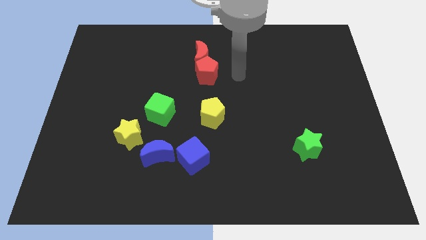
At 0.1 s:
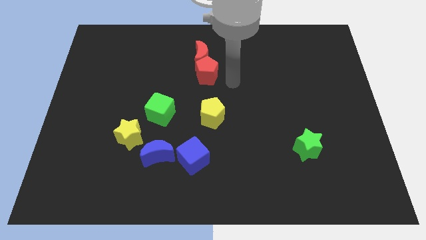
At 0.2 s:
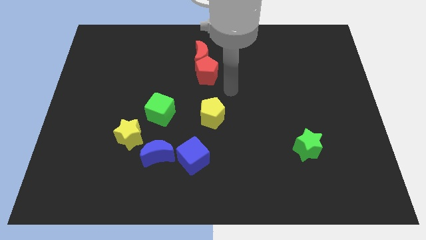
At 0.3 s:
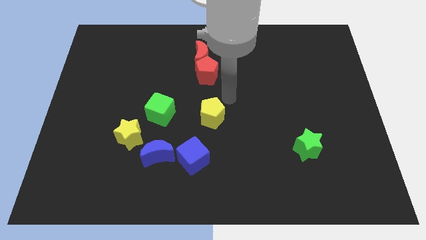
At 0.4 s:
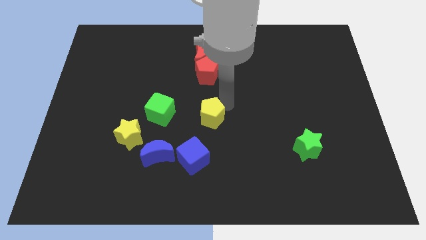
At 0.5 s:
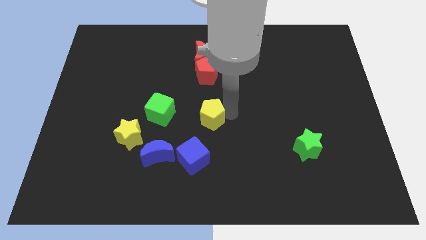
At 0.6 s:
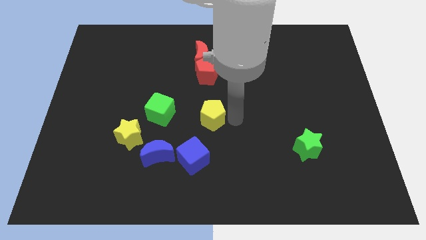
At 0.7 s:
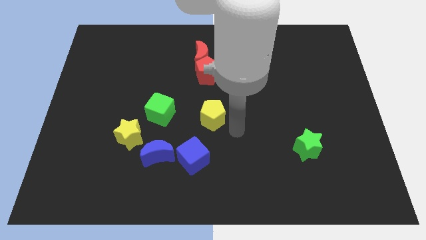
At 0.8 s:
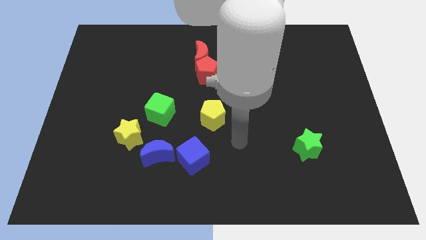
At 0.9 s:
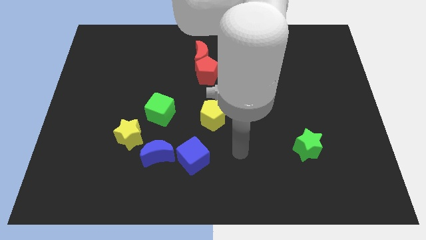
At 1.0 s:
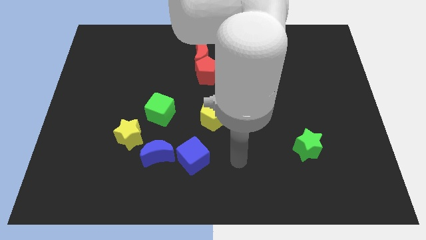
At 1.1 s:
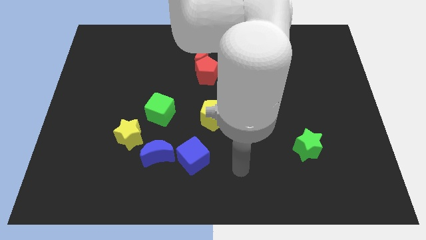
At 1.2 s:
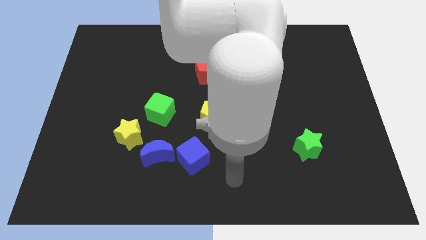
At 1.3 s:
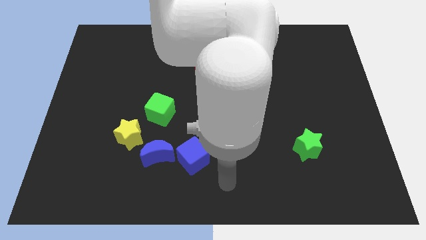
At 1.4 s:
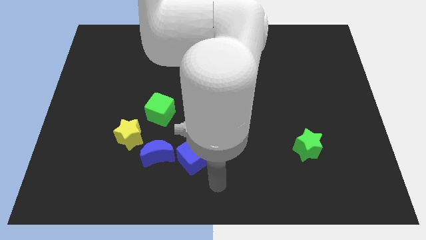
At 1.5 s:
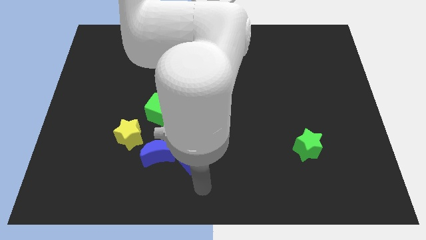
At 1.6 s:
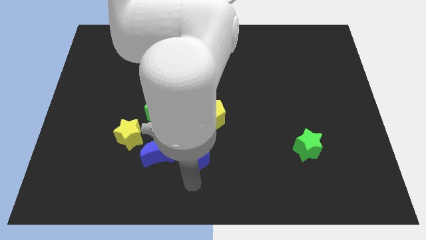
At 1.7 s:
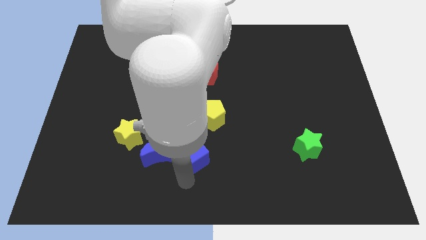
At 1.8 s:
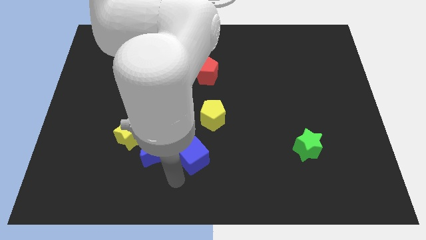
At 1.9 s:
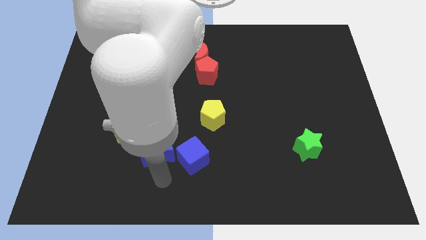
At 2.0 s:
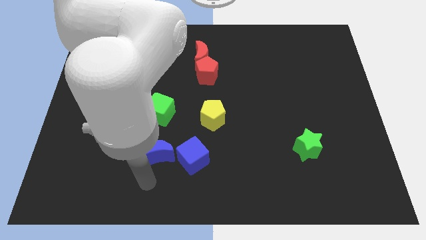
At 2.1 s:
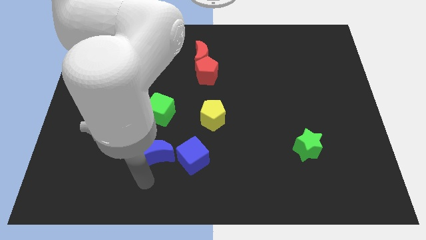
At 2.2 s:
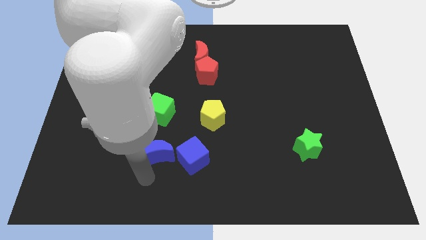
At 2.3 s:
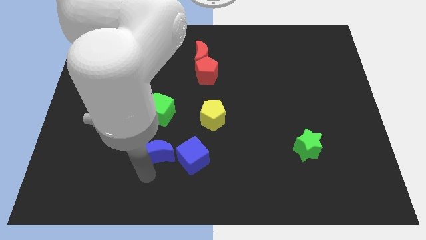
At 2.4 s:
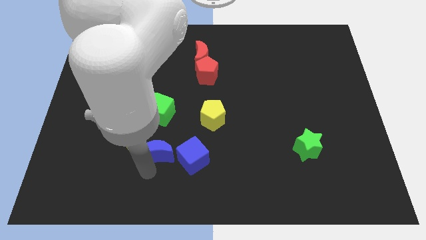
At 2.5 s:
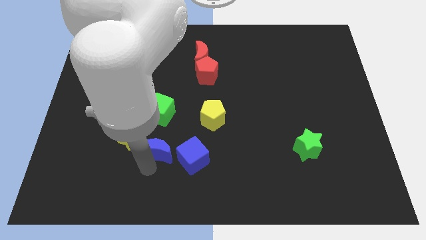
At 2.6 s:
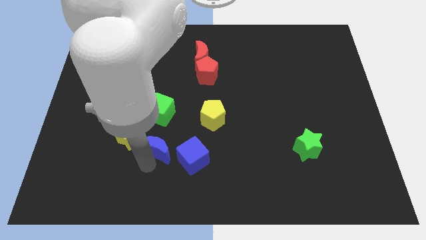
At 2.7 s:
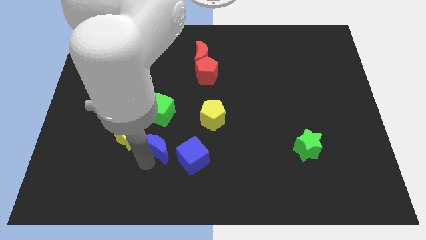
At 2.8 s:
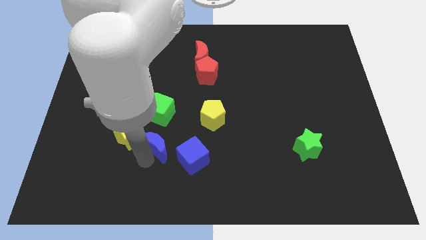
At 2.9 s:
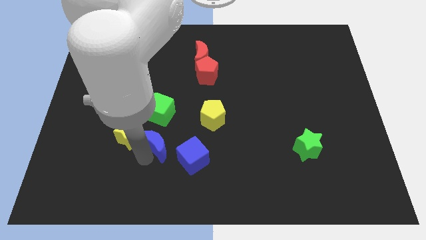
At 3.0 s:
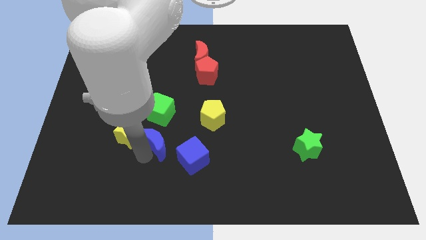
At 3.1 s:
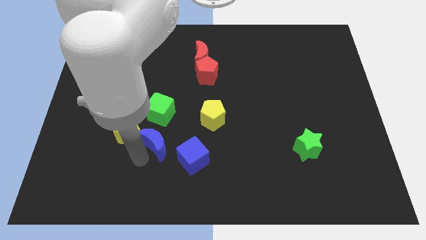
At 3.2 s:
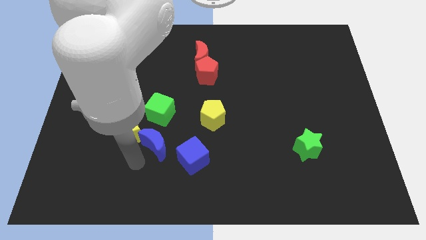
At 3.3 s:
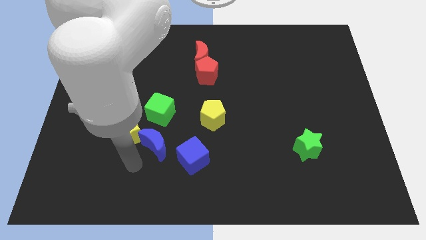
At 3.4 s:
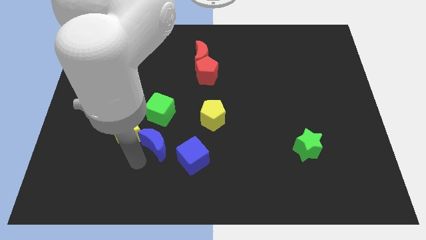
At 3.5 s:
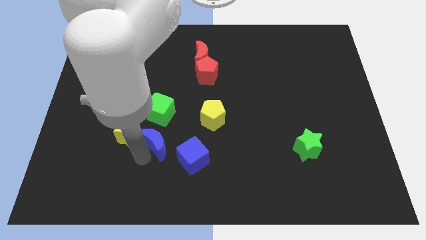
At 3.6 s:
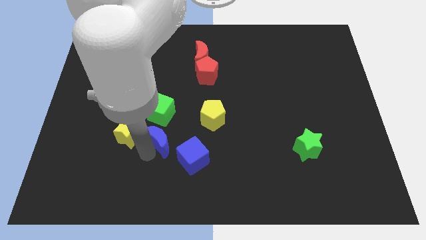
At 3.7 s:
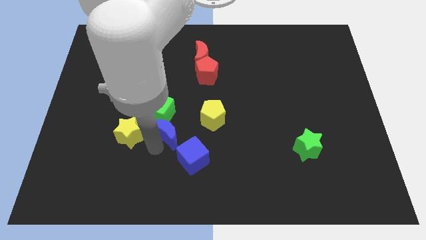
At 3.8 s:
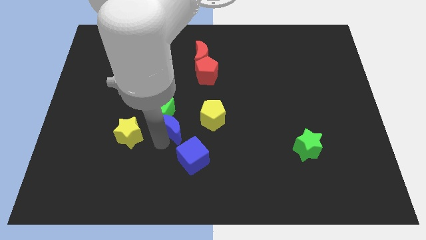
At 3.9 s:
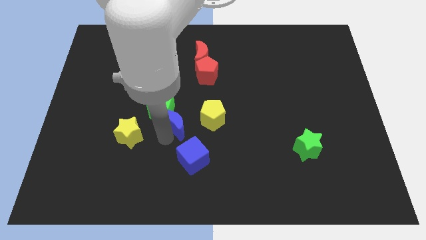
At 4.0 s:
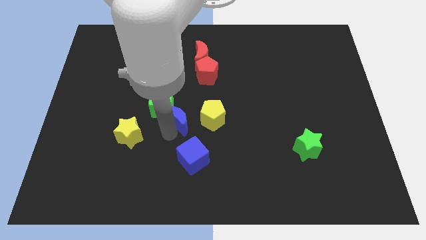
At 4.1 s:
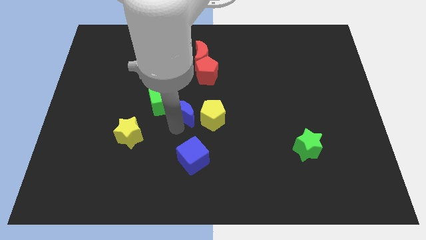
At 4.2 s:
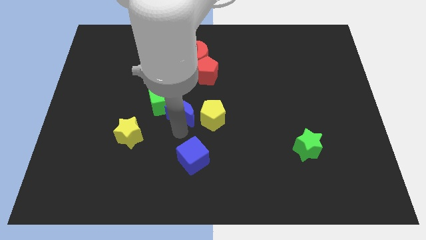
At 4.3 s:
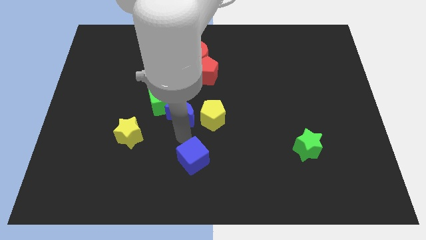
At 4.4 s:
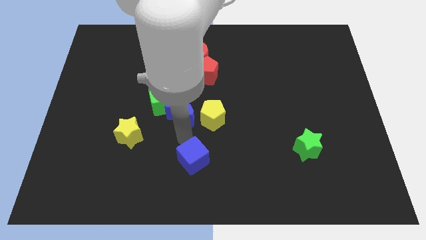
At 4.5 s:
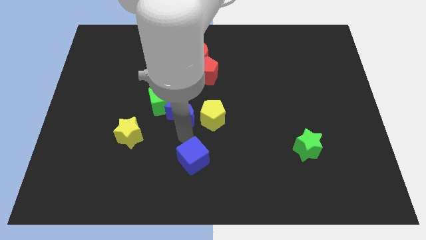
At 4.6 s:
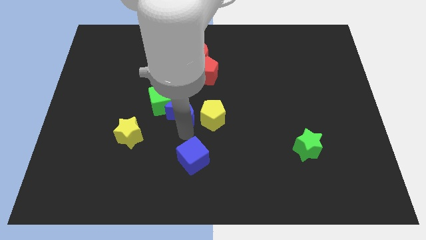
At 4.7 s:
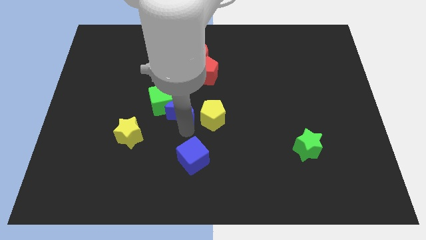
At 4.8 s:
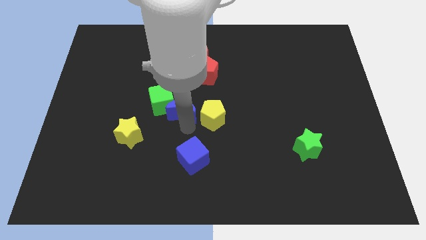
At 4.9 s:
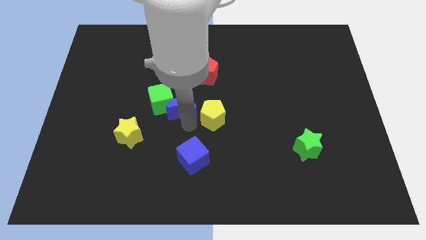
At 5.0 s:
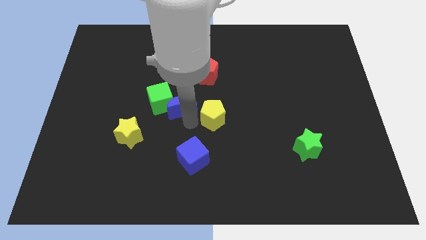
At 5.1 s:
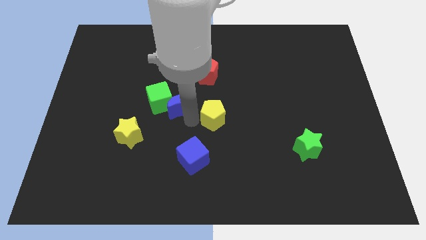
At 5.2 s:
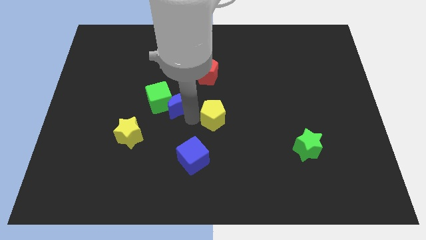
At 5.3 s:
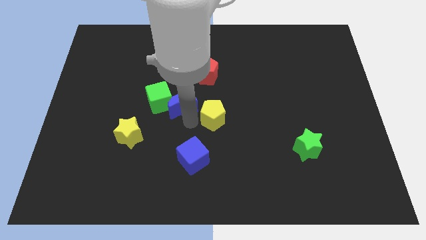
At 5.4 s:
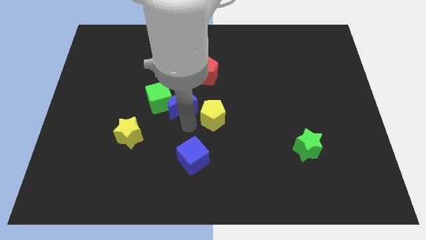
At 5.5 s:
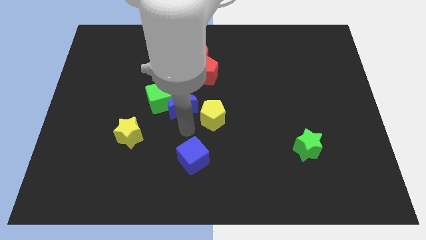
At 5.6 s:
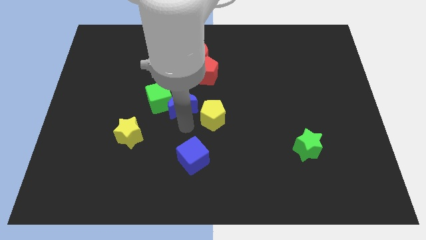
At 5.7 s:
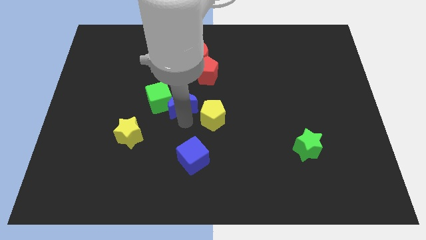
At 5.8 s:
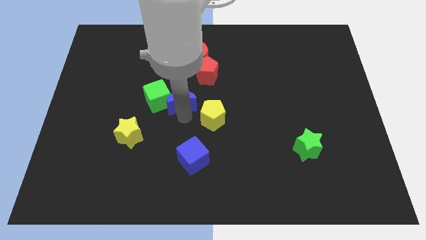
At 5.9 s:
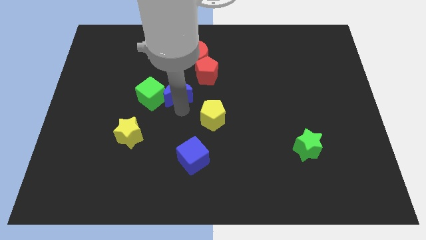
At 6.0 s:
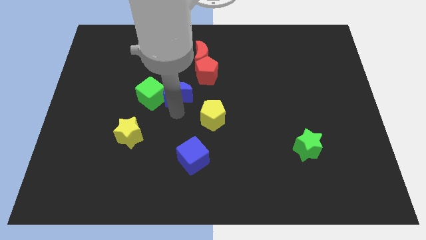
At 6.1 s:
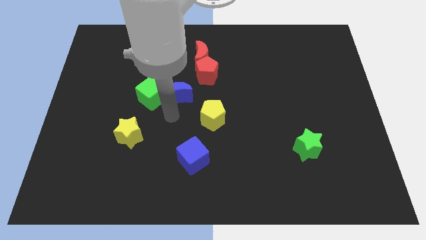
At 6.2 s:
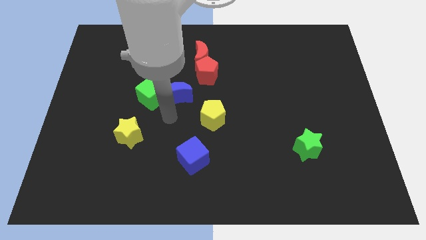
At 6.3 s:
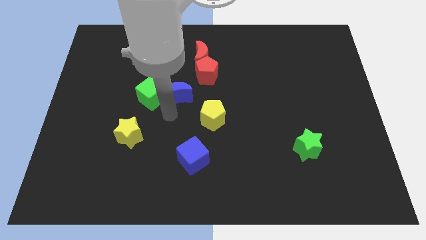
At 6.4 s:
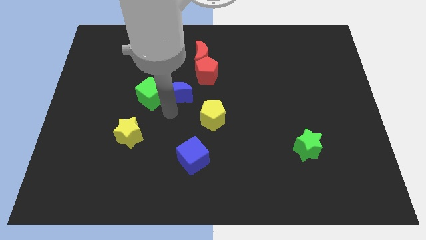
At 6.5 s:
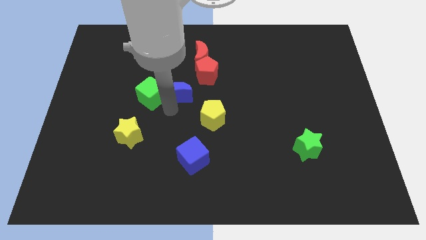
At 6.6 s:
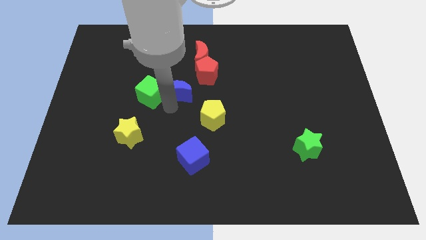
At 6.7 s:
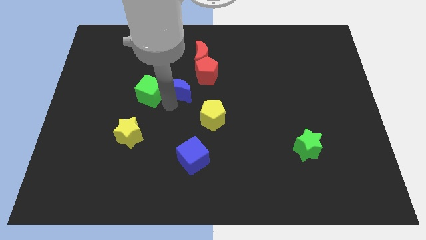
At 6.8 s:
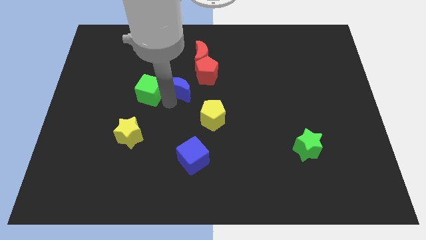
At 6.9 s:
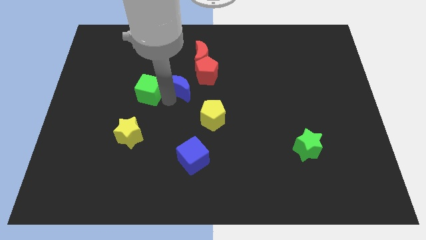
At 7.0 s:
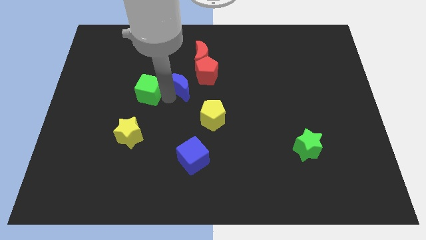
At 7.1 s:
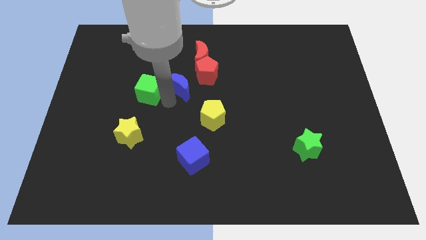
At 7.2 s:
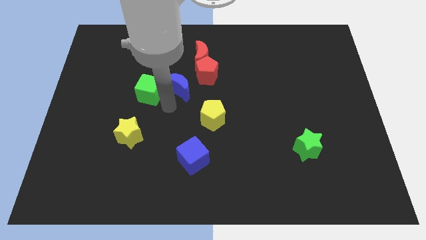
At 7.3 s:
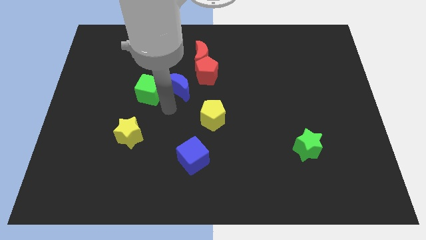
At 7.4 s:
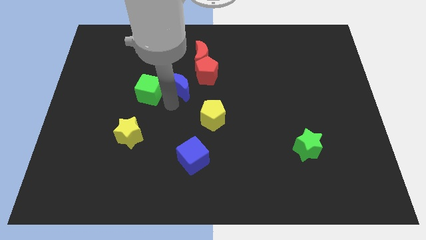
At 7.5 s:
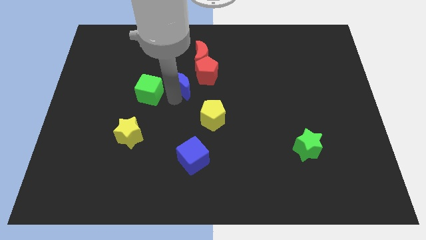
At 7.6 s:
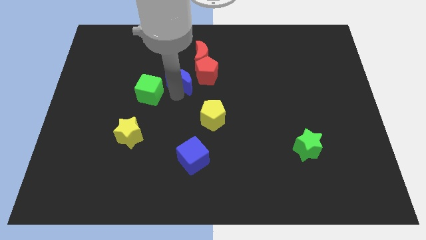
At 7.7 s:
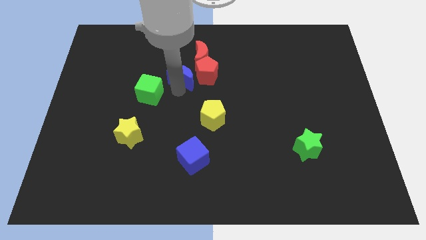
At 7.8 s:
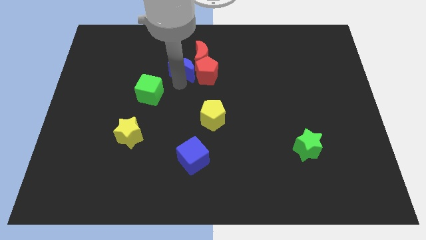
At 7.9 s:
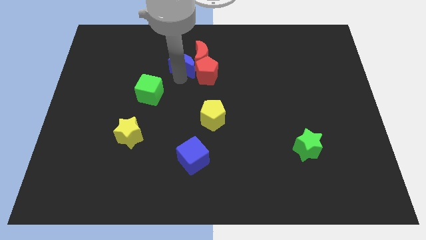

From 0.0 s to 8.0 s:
push the blue moon close to the red moon
